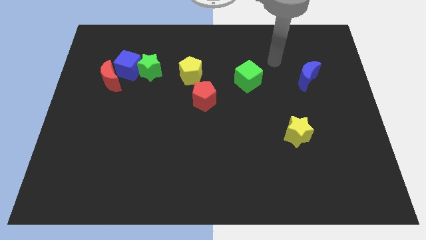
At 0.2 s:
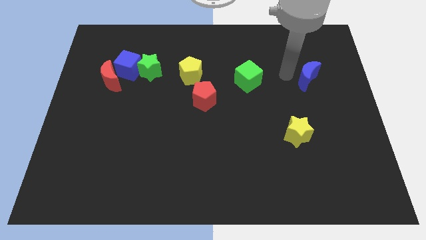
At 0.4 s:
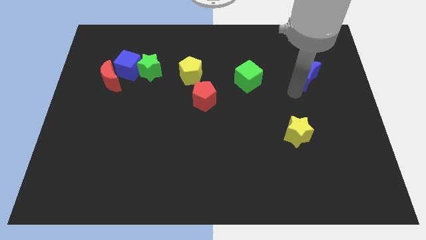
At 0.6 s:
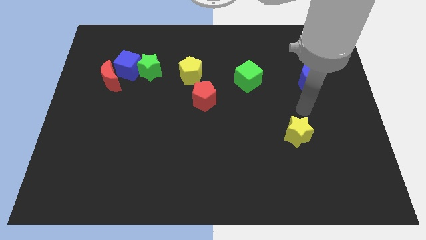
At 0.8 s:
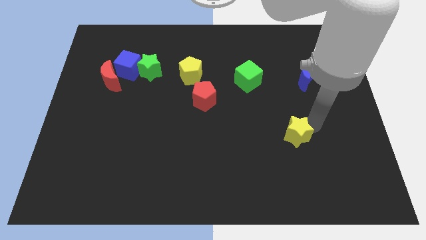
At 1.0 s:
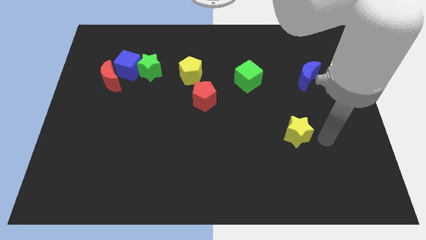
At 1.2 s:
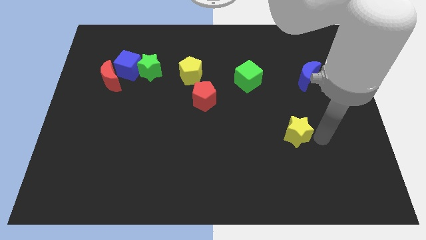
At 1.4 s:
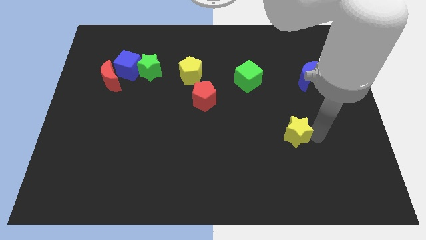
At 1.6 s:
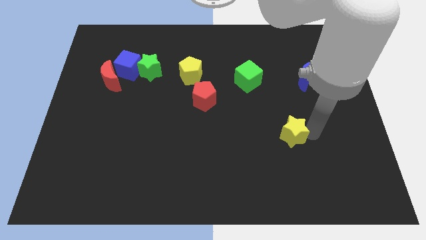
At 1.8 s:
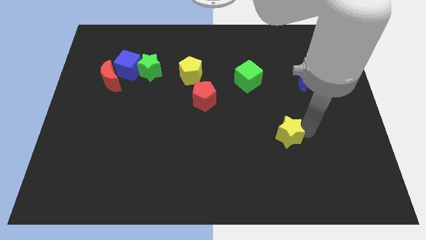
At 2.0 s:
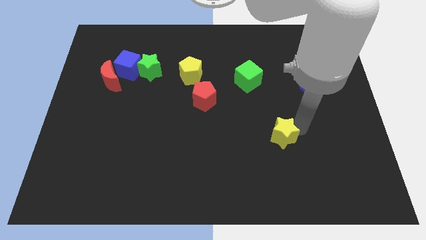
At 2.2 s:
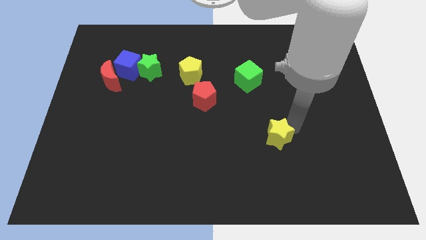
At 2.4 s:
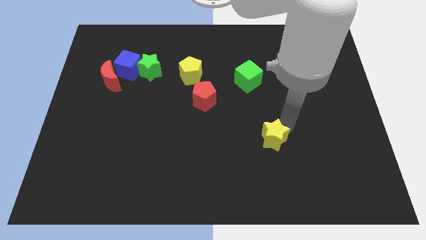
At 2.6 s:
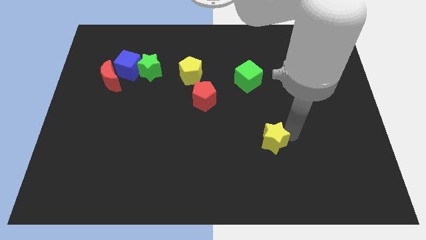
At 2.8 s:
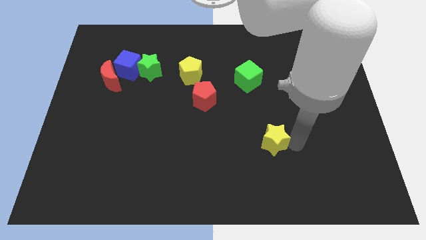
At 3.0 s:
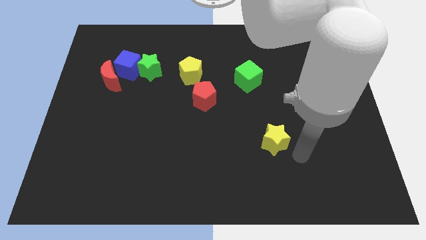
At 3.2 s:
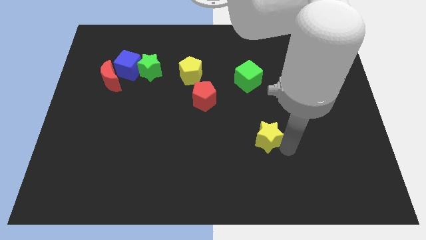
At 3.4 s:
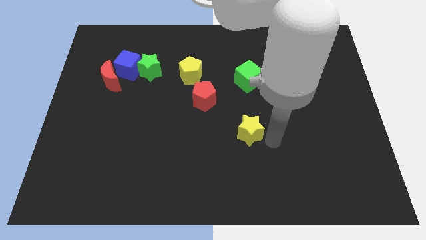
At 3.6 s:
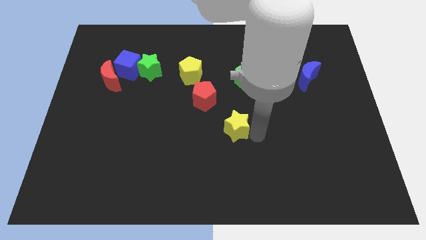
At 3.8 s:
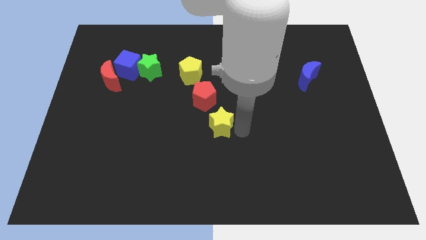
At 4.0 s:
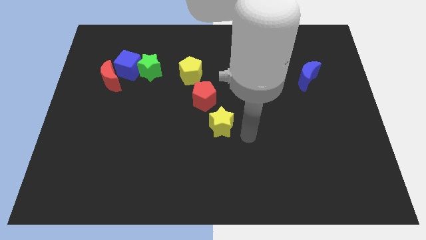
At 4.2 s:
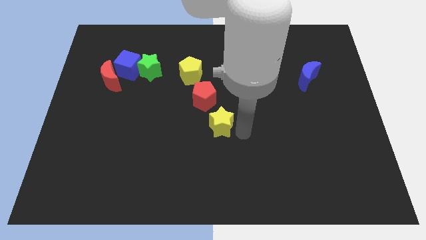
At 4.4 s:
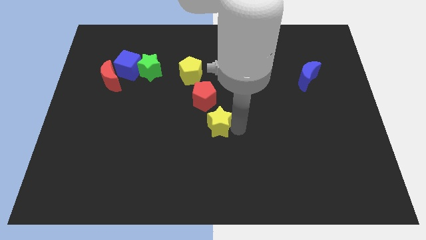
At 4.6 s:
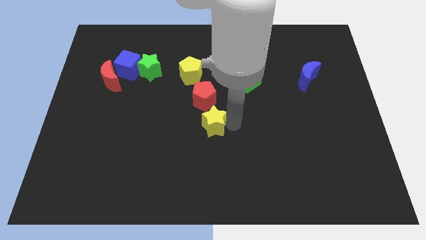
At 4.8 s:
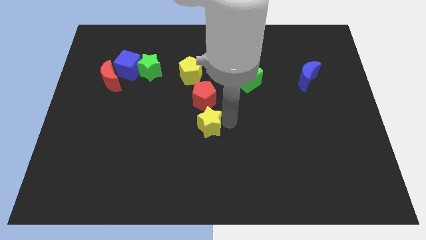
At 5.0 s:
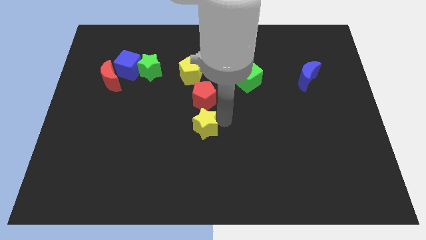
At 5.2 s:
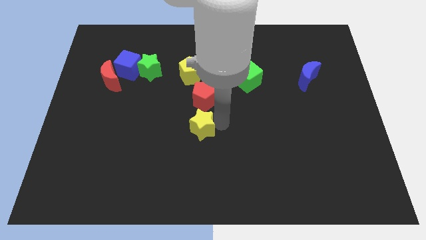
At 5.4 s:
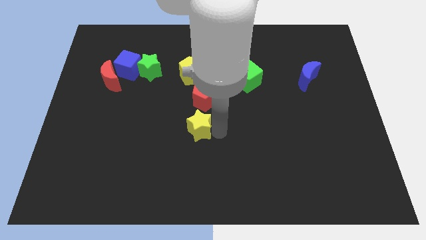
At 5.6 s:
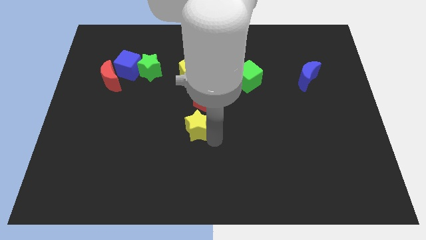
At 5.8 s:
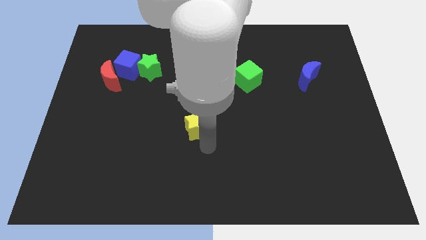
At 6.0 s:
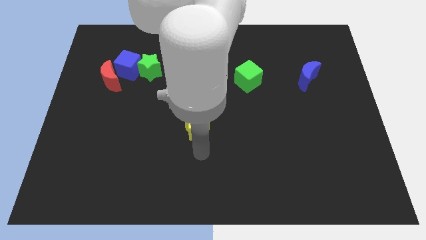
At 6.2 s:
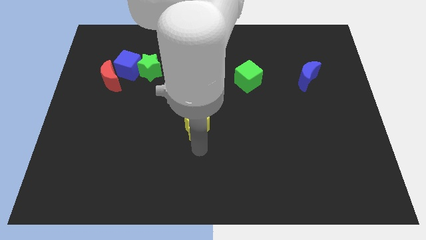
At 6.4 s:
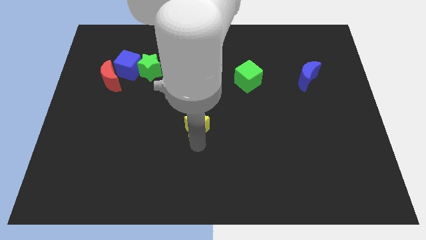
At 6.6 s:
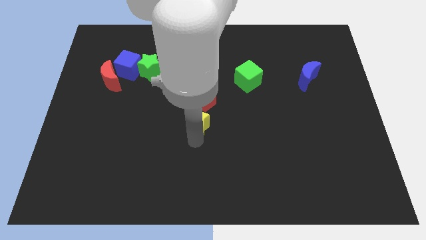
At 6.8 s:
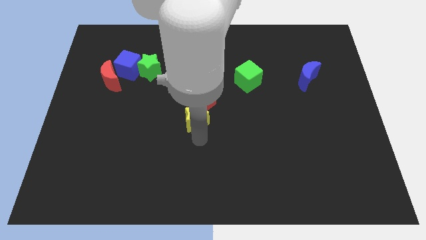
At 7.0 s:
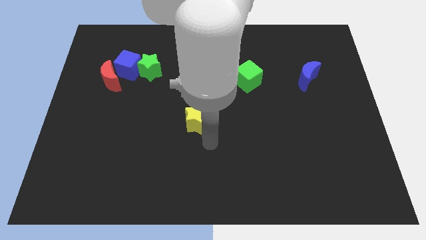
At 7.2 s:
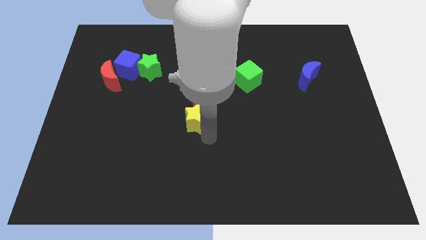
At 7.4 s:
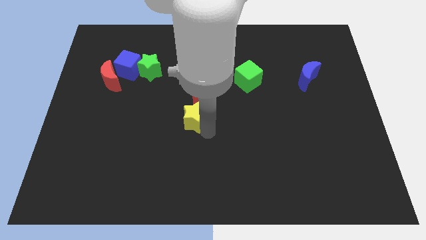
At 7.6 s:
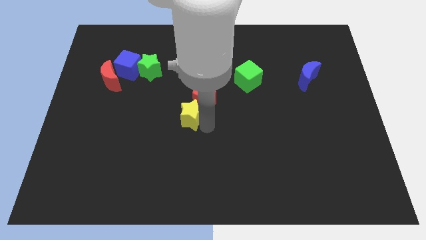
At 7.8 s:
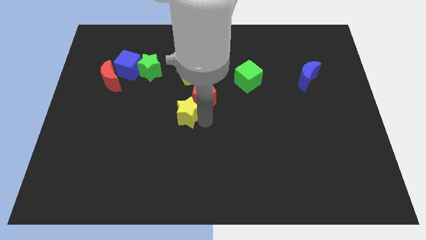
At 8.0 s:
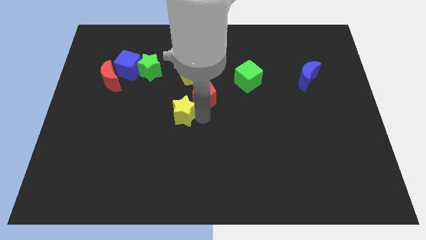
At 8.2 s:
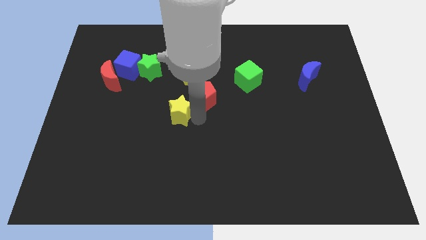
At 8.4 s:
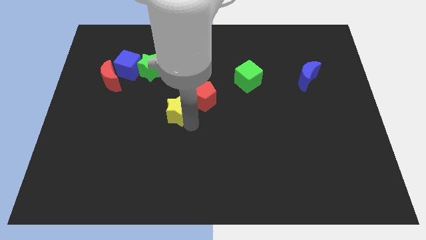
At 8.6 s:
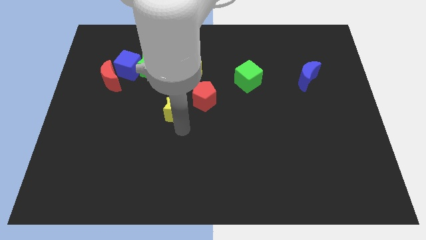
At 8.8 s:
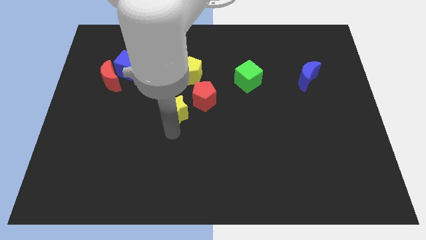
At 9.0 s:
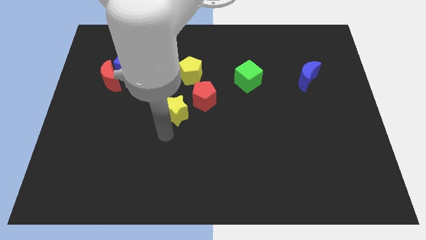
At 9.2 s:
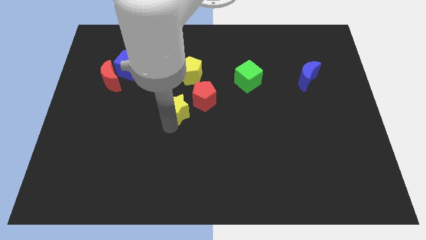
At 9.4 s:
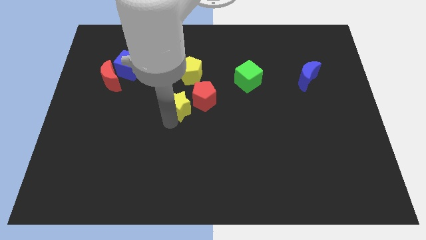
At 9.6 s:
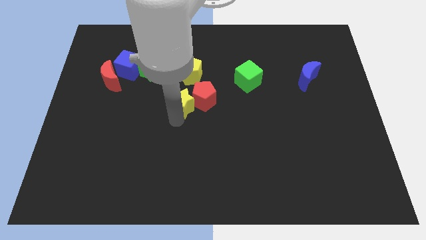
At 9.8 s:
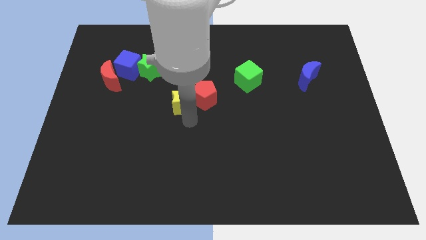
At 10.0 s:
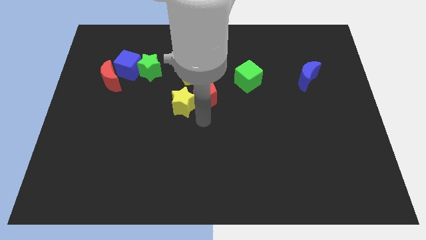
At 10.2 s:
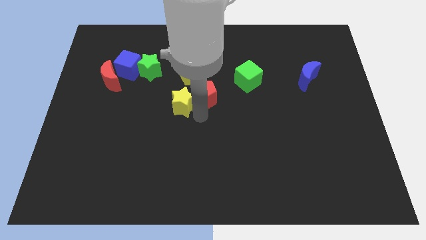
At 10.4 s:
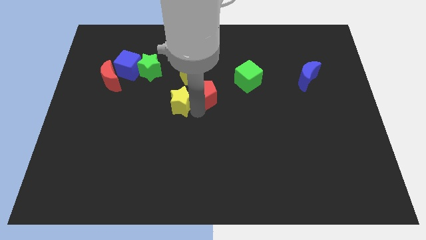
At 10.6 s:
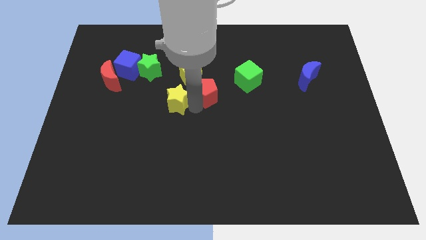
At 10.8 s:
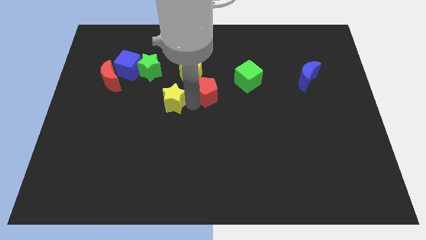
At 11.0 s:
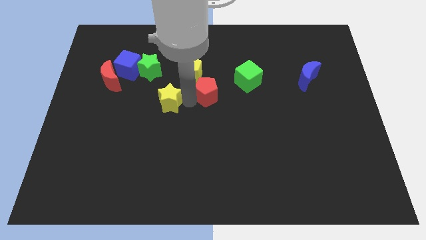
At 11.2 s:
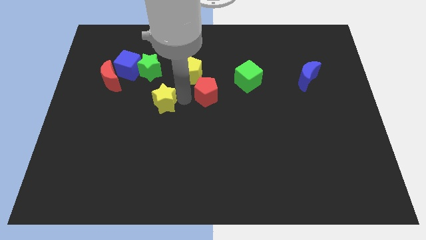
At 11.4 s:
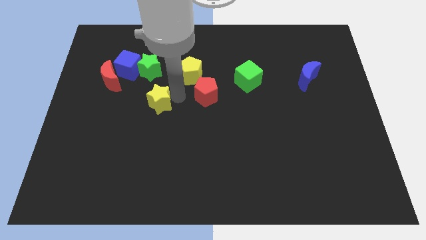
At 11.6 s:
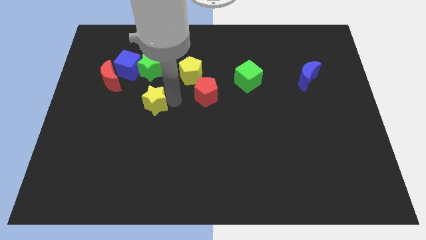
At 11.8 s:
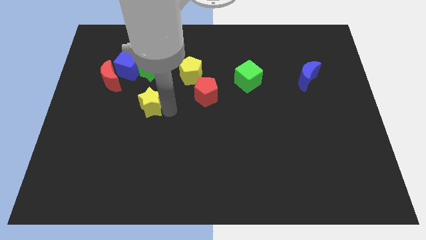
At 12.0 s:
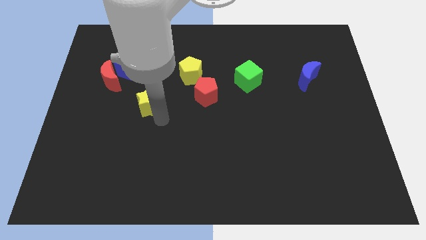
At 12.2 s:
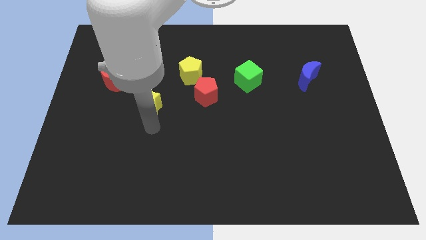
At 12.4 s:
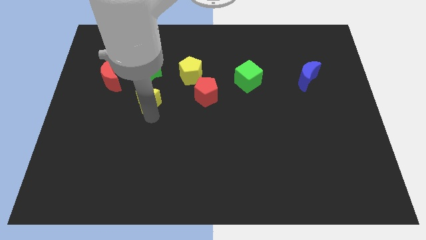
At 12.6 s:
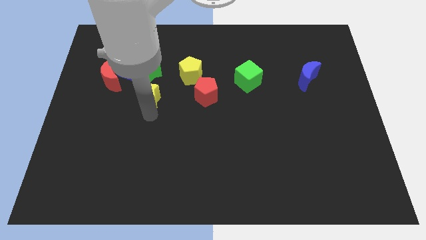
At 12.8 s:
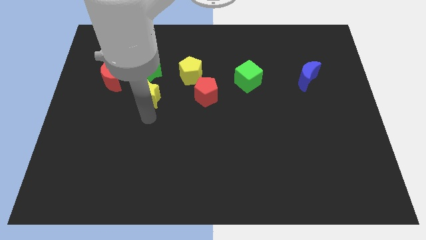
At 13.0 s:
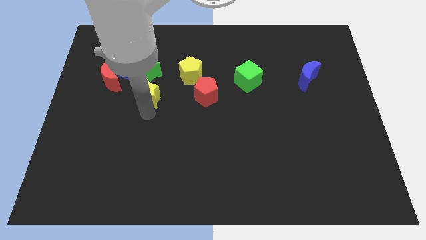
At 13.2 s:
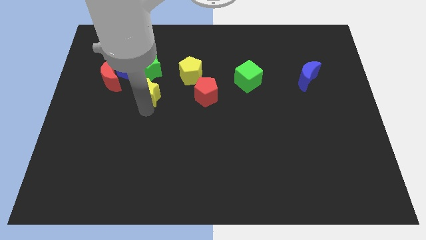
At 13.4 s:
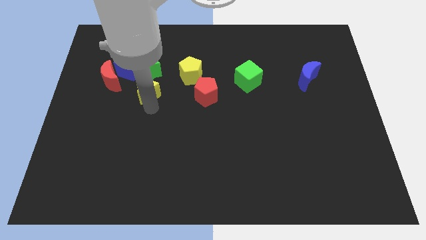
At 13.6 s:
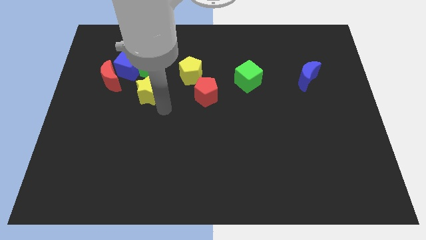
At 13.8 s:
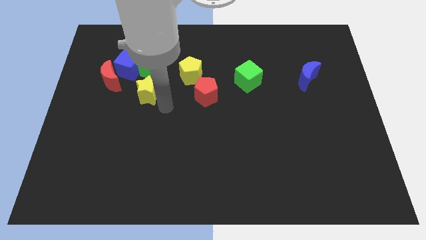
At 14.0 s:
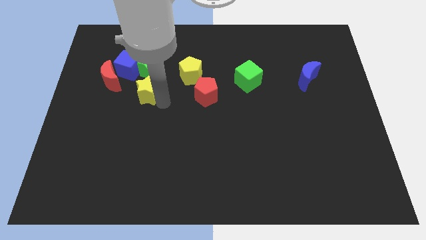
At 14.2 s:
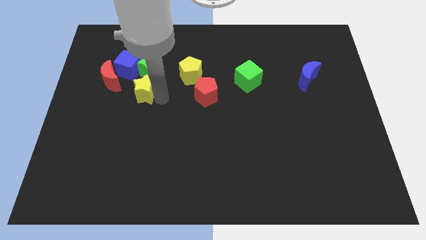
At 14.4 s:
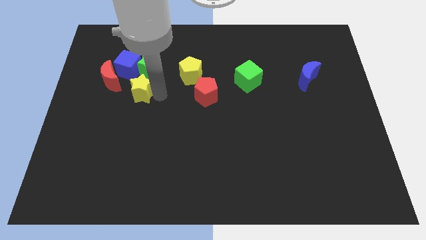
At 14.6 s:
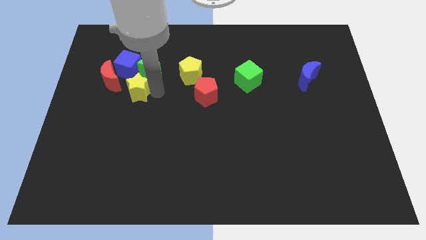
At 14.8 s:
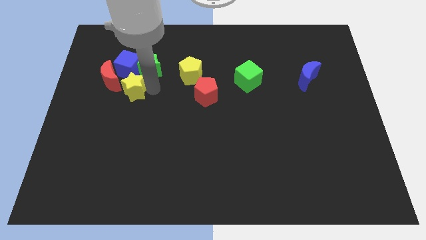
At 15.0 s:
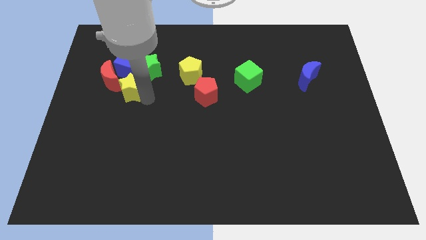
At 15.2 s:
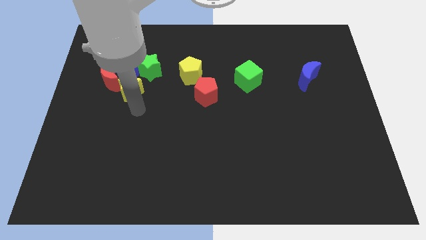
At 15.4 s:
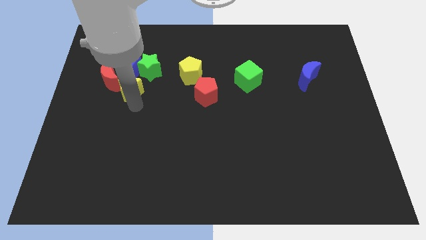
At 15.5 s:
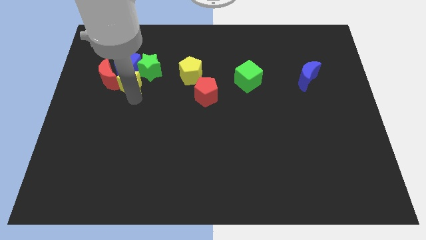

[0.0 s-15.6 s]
move the yellow star to the blue cube
